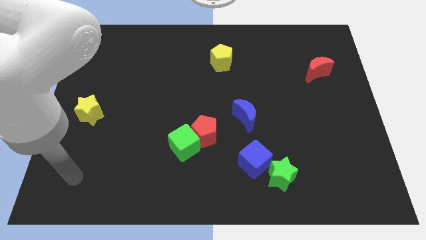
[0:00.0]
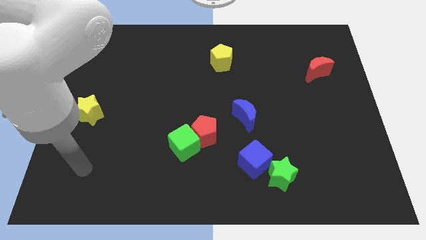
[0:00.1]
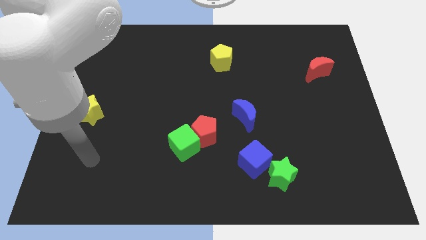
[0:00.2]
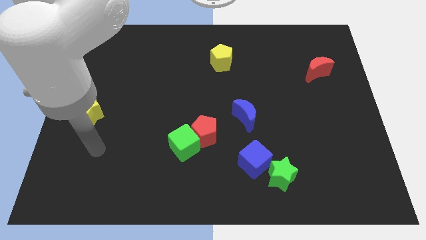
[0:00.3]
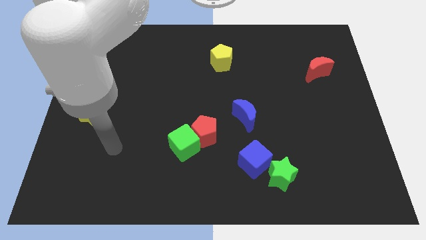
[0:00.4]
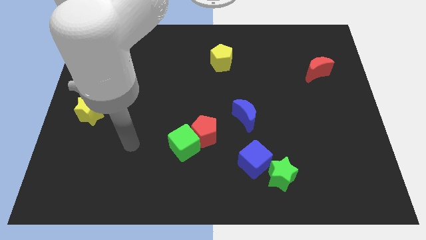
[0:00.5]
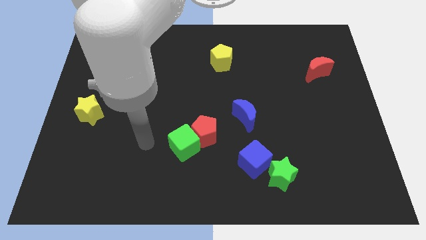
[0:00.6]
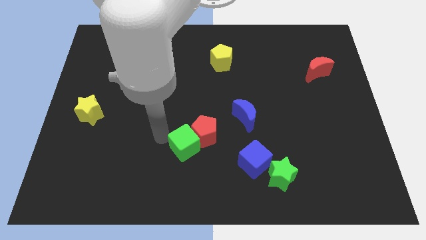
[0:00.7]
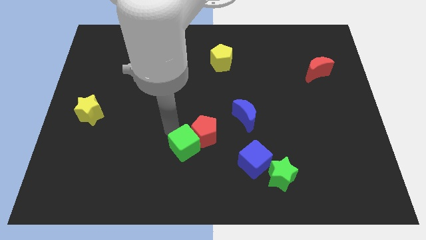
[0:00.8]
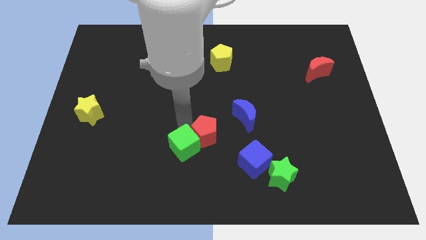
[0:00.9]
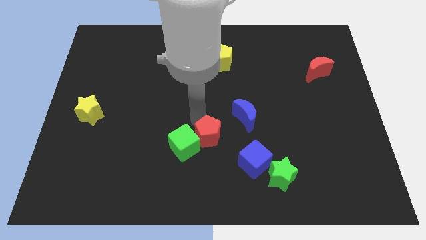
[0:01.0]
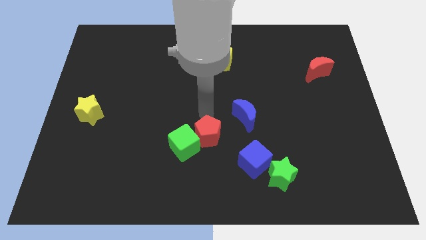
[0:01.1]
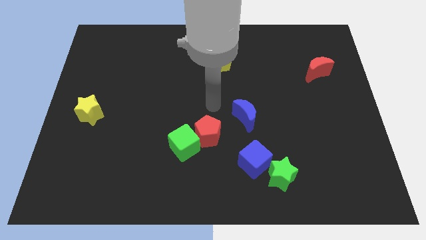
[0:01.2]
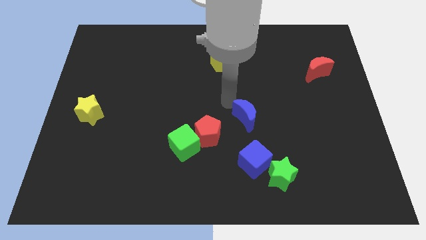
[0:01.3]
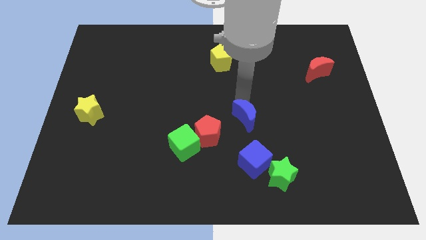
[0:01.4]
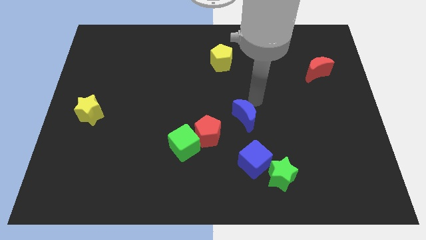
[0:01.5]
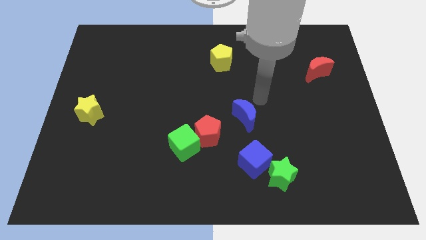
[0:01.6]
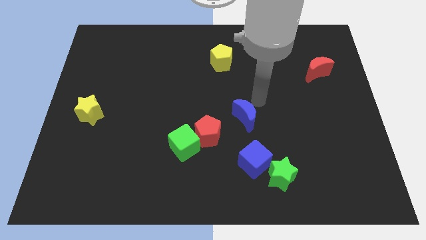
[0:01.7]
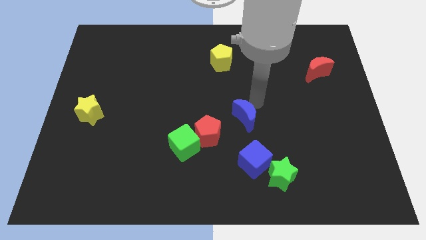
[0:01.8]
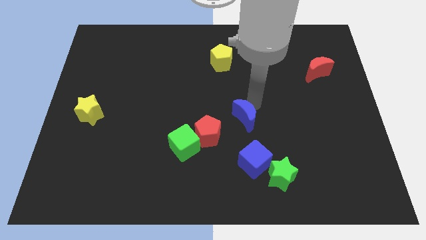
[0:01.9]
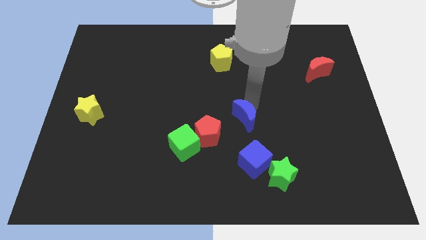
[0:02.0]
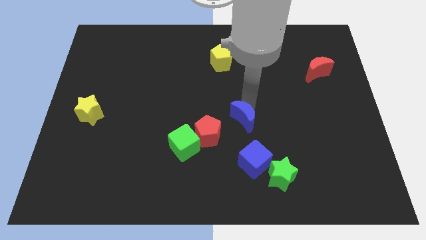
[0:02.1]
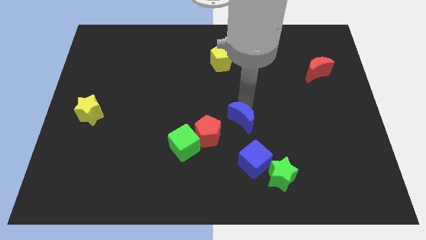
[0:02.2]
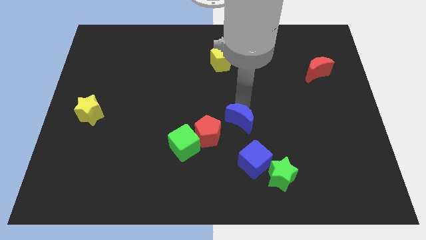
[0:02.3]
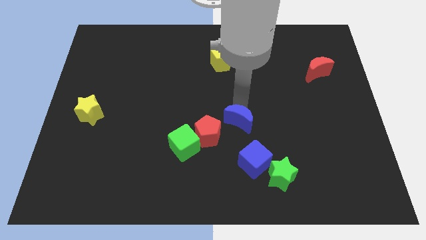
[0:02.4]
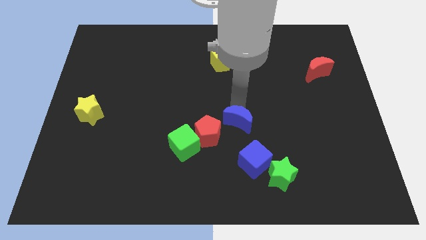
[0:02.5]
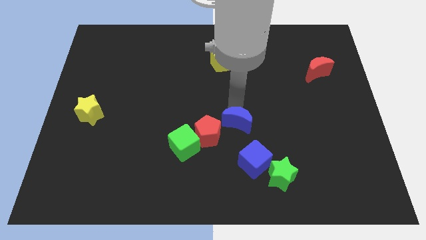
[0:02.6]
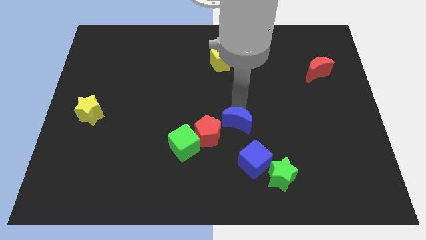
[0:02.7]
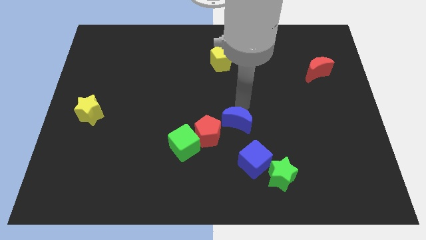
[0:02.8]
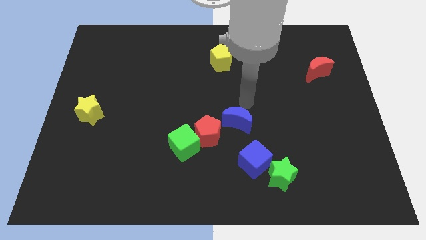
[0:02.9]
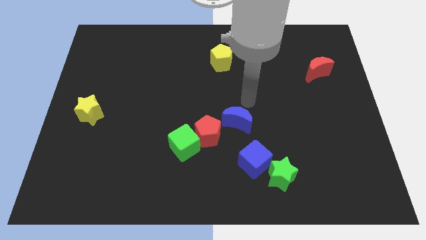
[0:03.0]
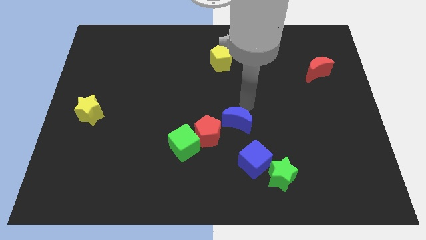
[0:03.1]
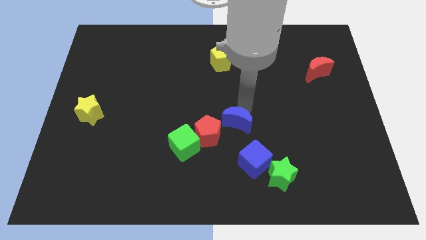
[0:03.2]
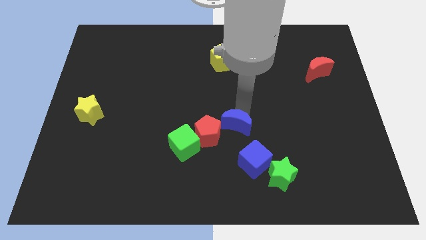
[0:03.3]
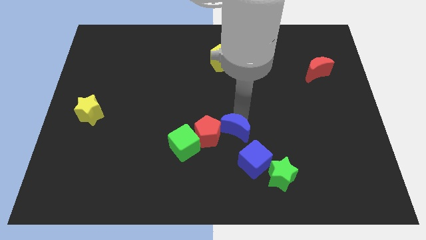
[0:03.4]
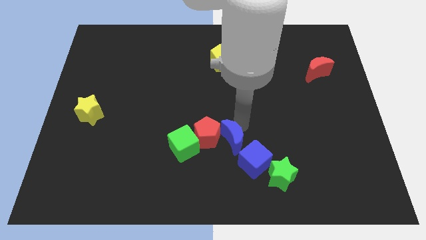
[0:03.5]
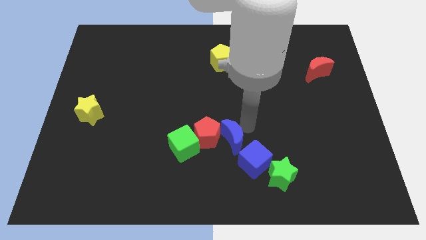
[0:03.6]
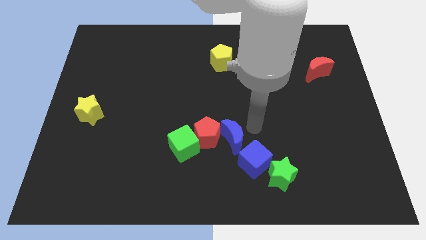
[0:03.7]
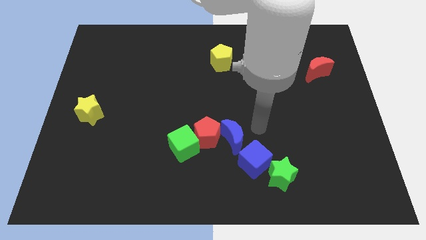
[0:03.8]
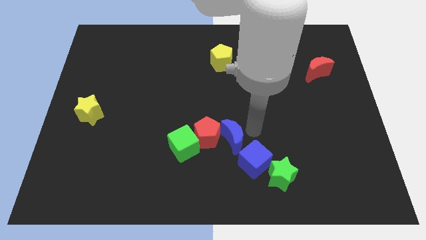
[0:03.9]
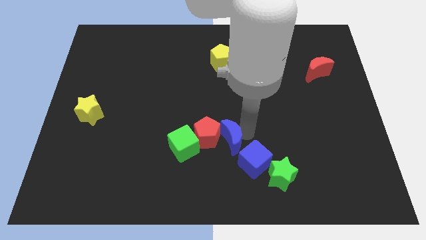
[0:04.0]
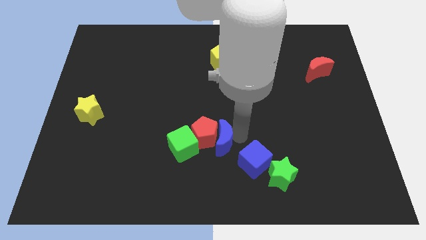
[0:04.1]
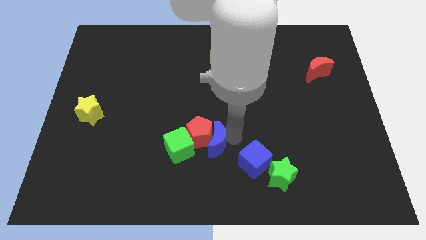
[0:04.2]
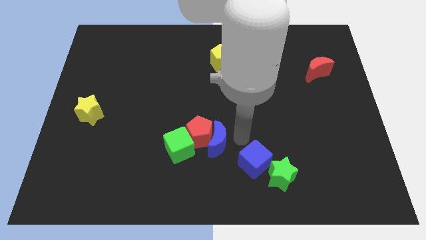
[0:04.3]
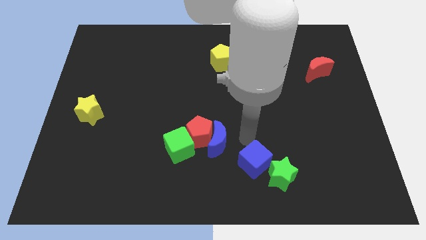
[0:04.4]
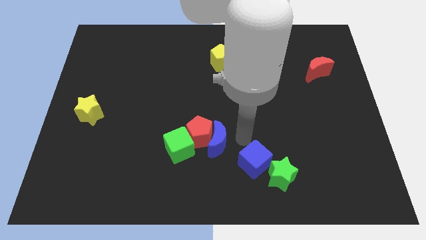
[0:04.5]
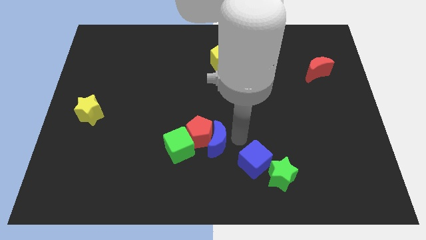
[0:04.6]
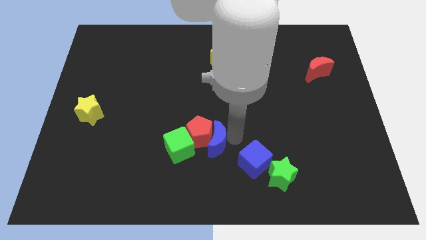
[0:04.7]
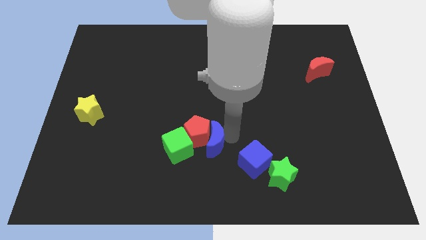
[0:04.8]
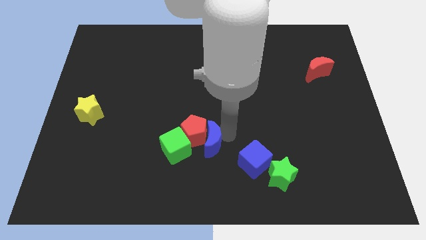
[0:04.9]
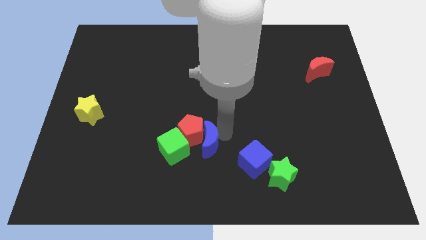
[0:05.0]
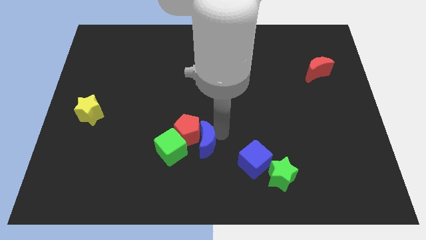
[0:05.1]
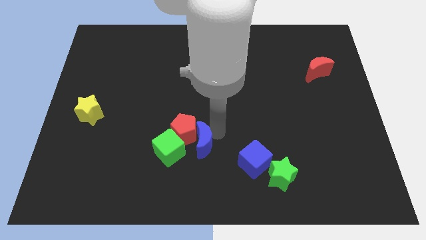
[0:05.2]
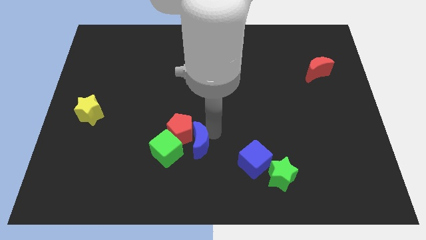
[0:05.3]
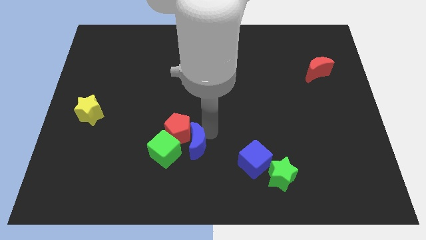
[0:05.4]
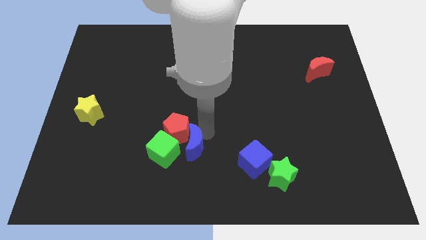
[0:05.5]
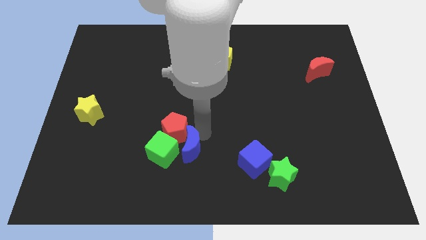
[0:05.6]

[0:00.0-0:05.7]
slide the blue moon to the green cube

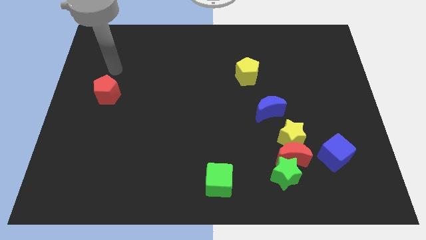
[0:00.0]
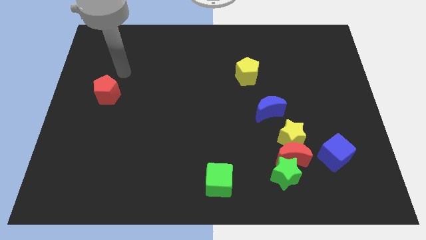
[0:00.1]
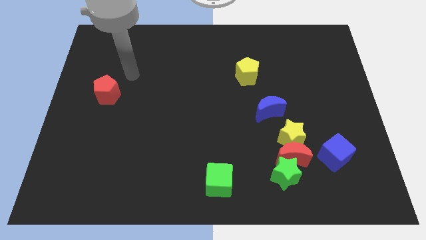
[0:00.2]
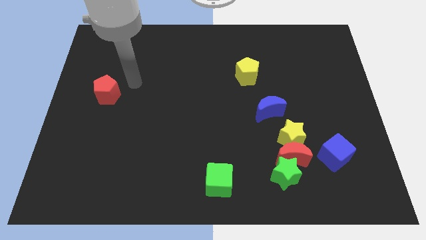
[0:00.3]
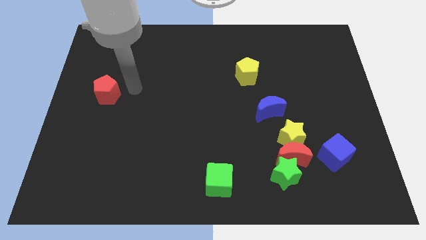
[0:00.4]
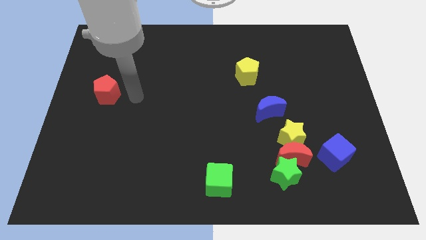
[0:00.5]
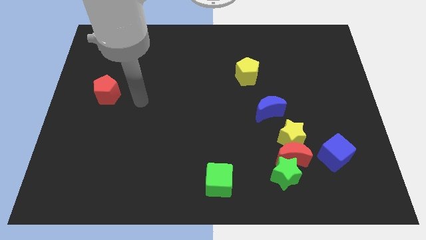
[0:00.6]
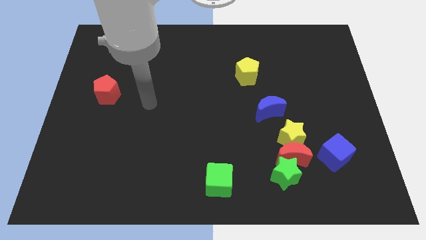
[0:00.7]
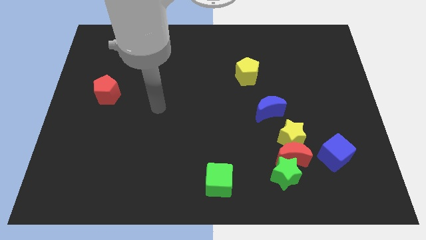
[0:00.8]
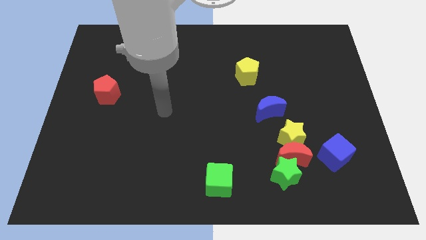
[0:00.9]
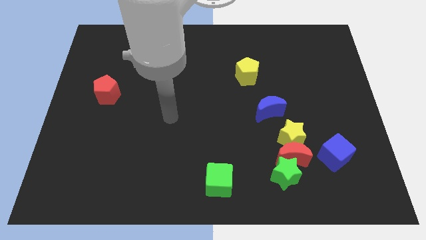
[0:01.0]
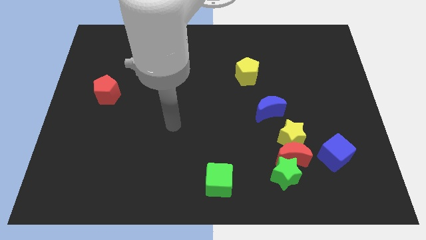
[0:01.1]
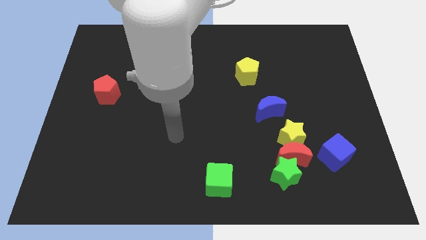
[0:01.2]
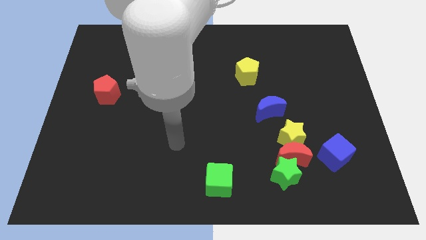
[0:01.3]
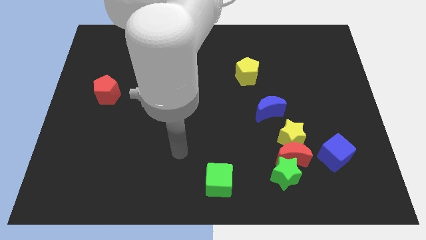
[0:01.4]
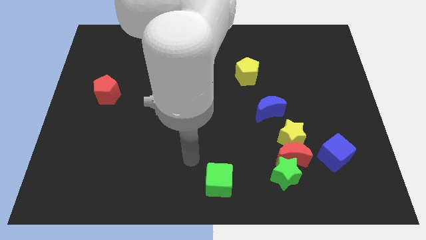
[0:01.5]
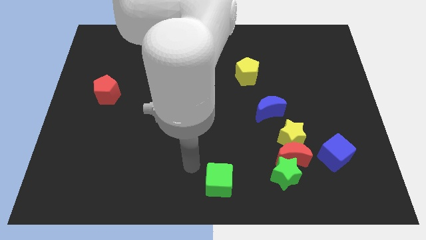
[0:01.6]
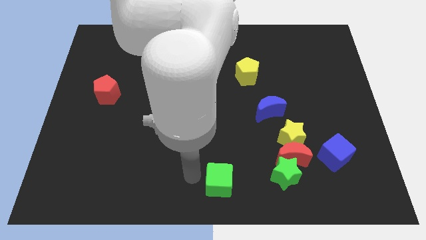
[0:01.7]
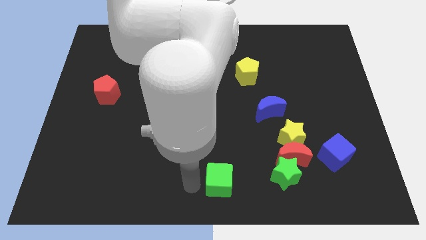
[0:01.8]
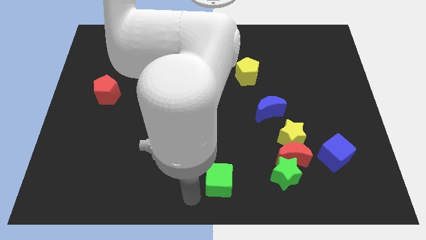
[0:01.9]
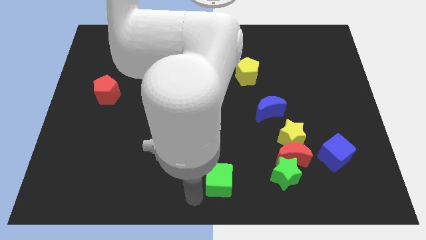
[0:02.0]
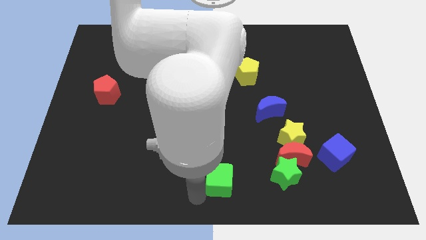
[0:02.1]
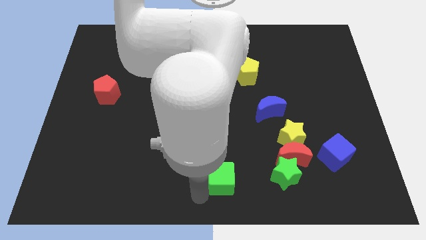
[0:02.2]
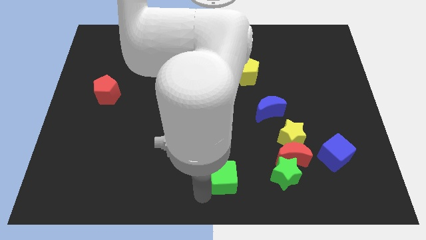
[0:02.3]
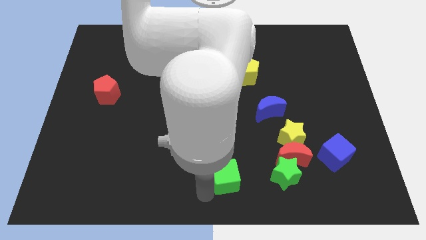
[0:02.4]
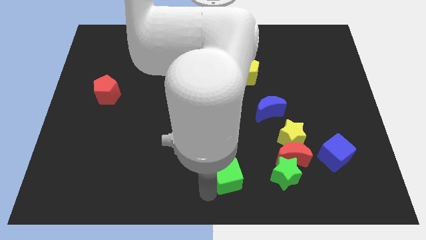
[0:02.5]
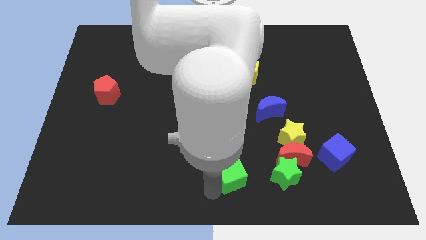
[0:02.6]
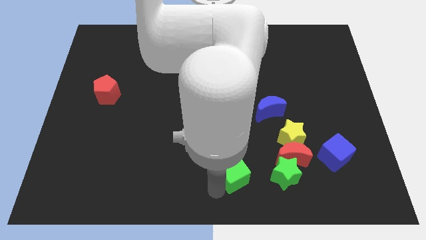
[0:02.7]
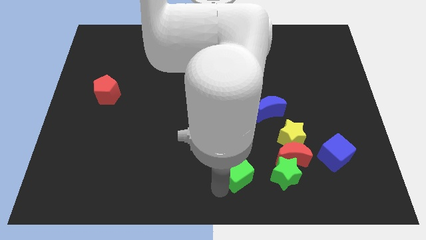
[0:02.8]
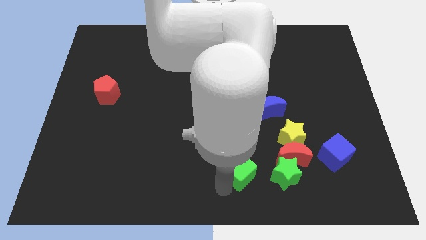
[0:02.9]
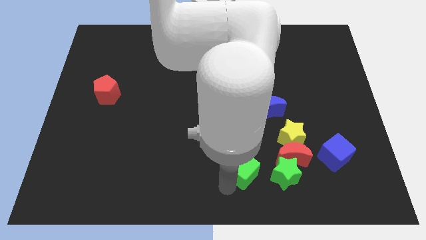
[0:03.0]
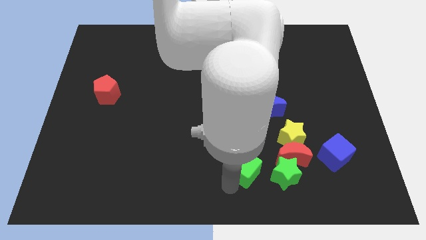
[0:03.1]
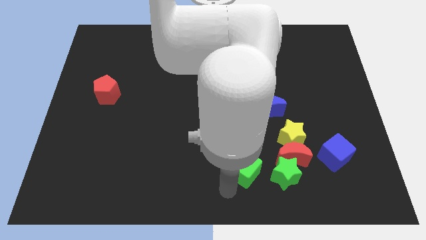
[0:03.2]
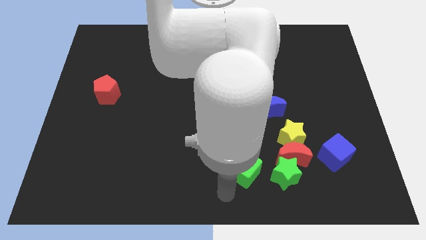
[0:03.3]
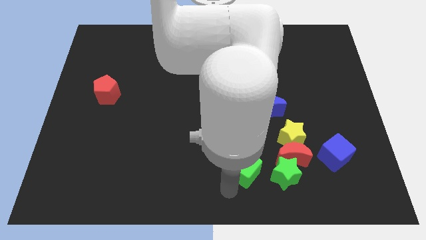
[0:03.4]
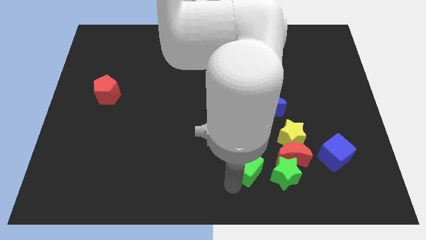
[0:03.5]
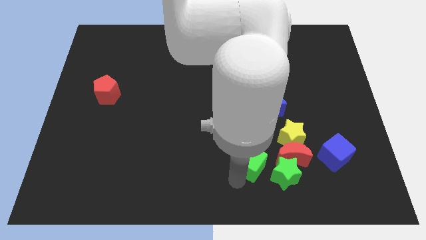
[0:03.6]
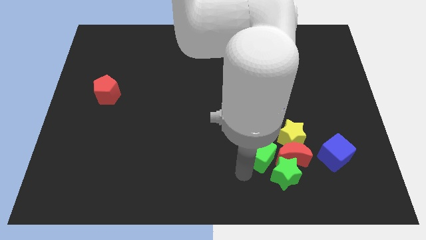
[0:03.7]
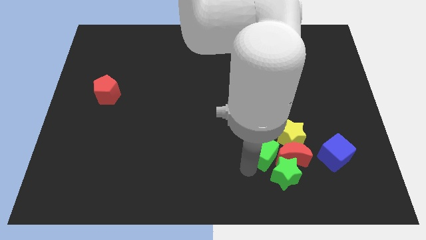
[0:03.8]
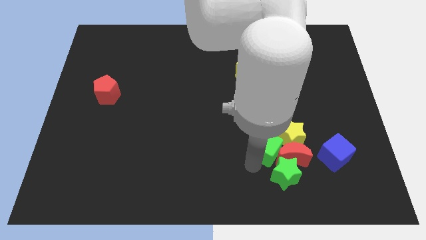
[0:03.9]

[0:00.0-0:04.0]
move the green cube towards the yellow star
